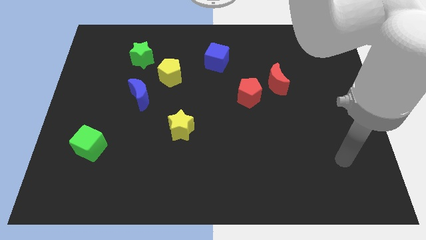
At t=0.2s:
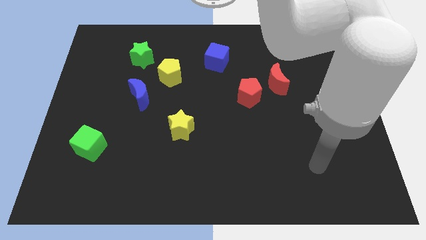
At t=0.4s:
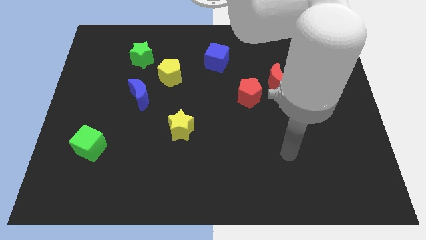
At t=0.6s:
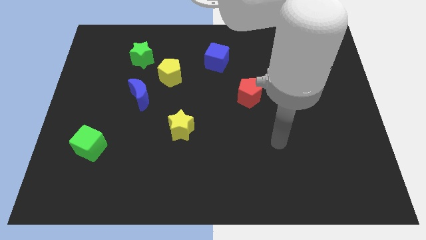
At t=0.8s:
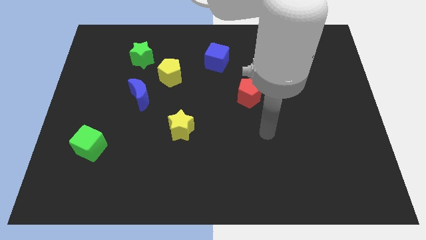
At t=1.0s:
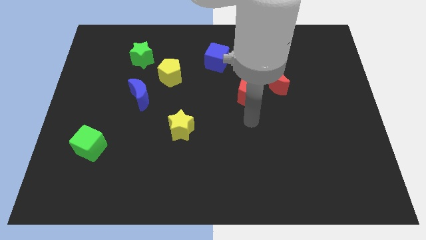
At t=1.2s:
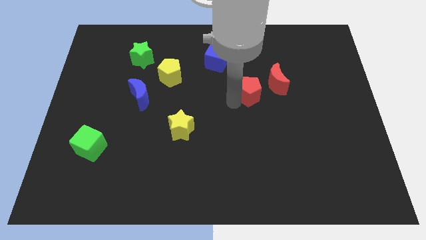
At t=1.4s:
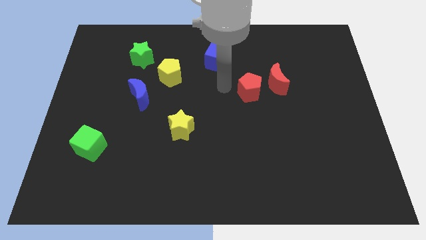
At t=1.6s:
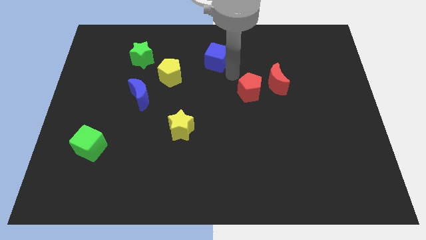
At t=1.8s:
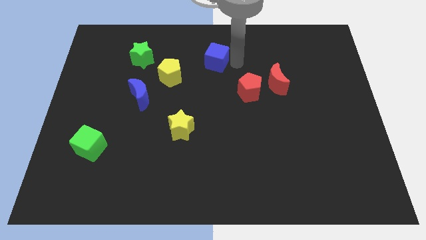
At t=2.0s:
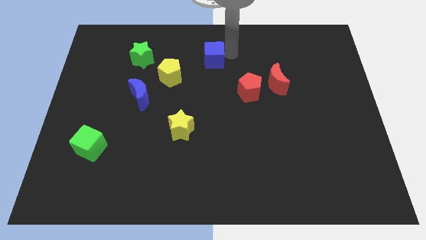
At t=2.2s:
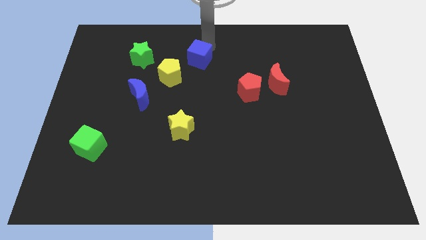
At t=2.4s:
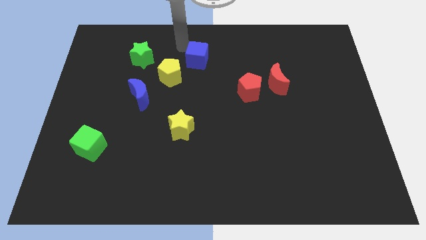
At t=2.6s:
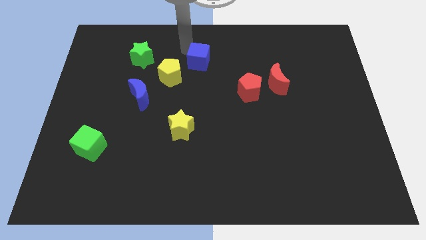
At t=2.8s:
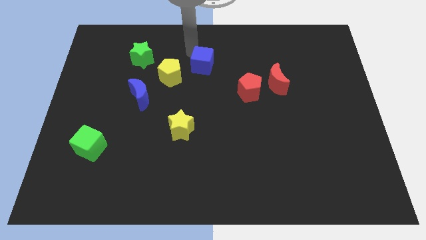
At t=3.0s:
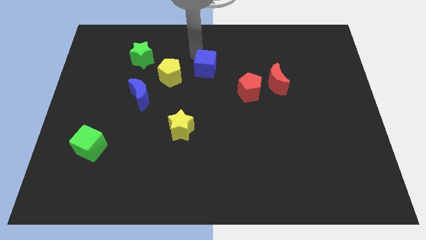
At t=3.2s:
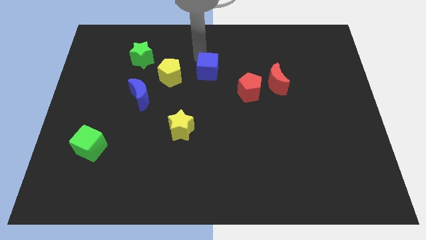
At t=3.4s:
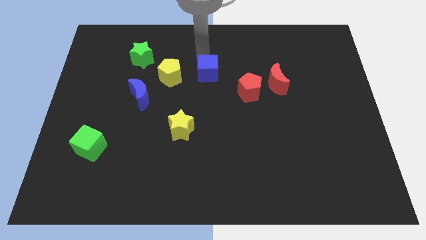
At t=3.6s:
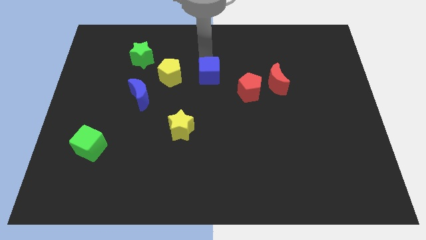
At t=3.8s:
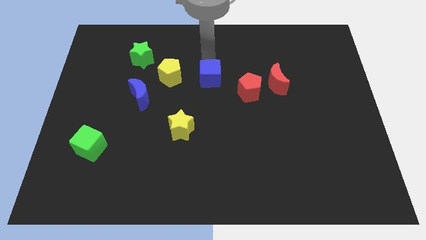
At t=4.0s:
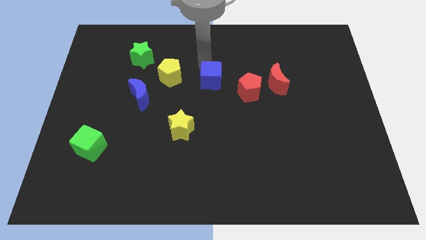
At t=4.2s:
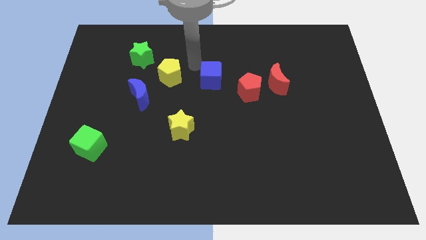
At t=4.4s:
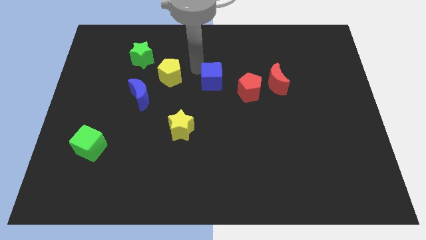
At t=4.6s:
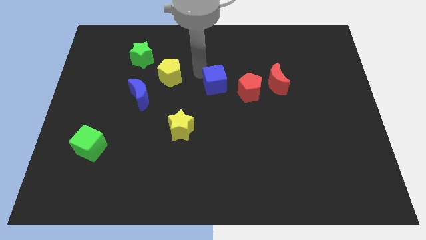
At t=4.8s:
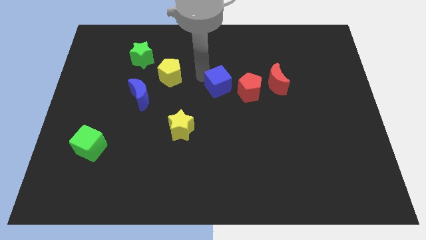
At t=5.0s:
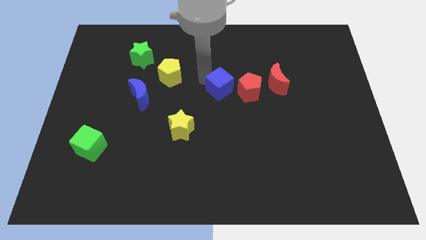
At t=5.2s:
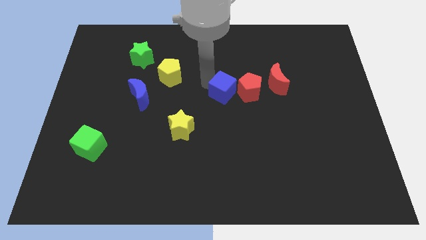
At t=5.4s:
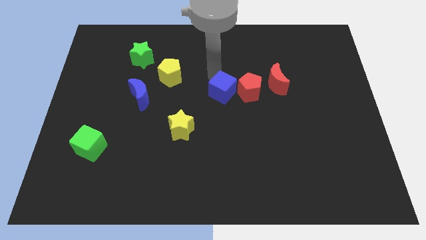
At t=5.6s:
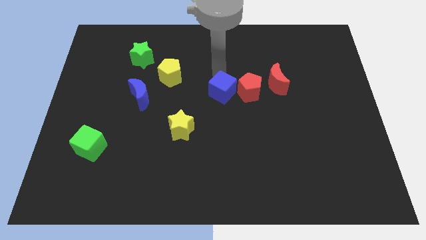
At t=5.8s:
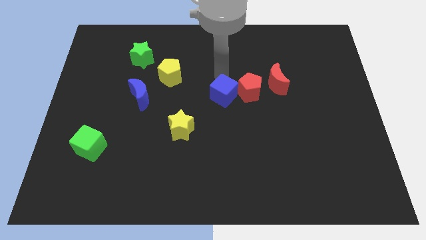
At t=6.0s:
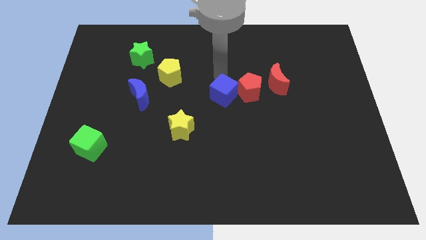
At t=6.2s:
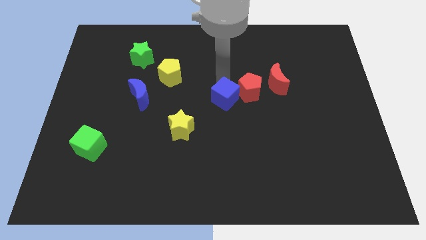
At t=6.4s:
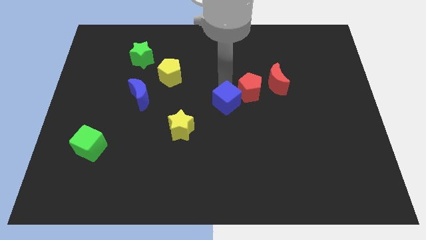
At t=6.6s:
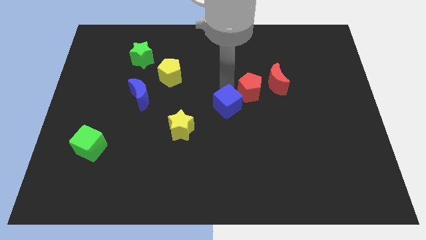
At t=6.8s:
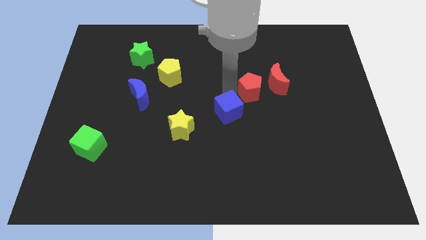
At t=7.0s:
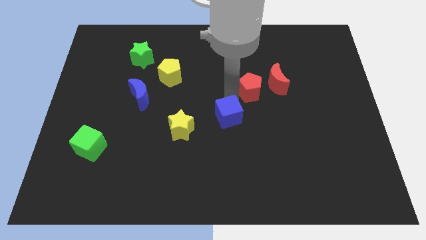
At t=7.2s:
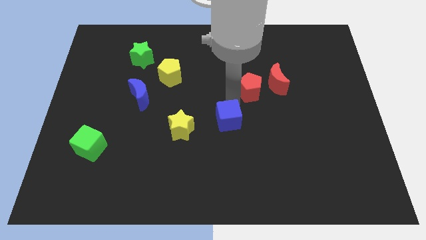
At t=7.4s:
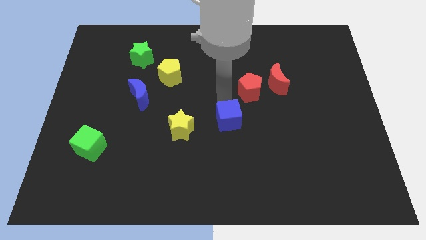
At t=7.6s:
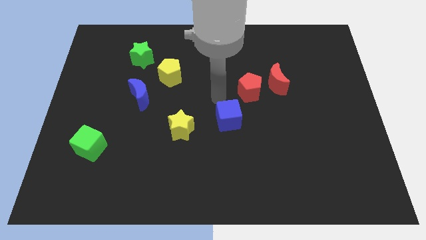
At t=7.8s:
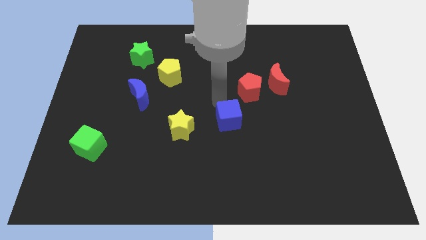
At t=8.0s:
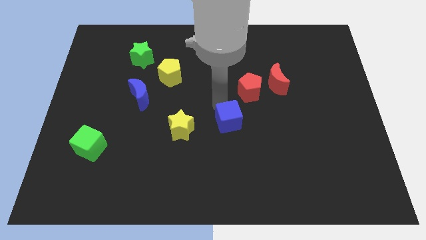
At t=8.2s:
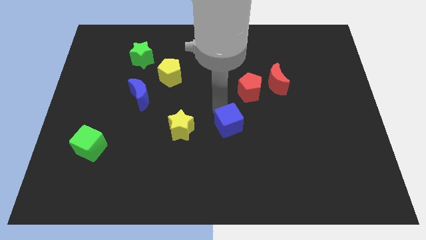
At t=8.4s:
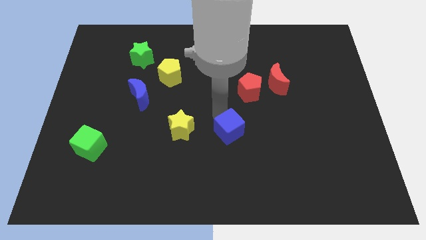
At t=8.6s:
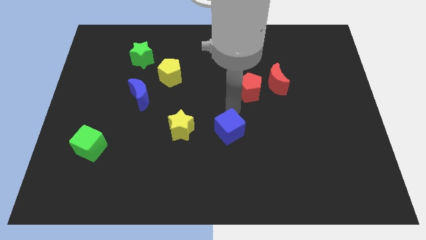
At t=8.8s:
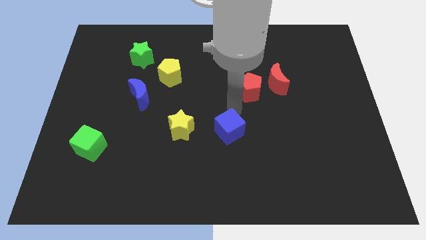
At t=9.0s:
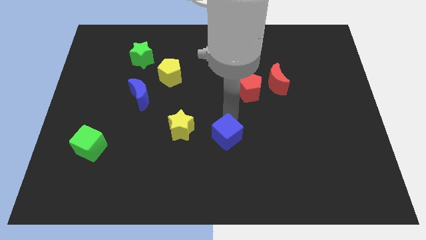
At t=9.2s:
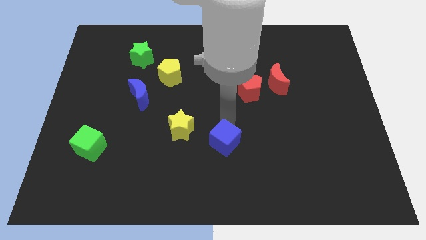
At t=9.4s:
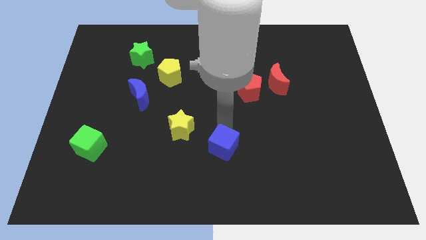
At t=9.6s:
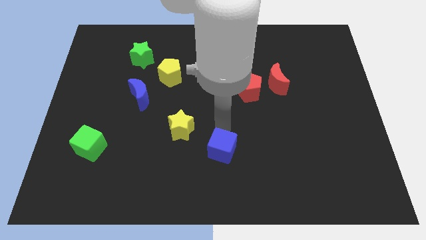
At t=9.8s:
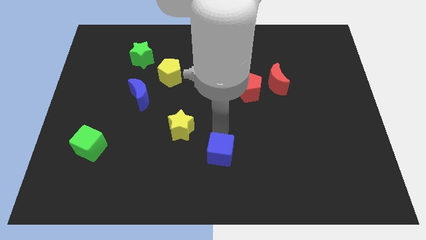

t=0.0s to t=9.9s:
move the blue cube to the bottom side

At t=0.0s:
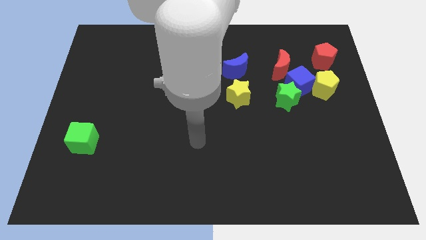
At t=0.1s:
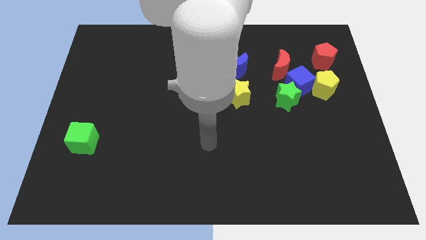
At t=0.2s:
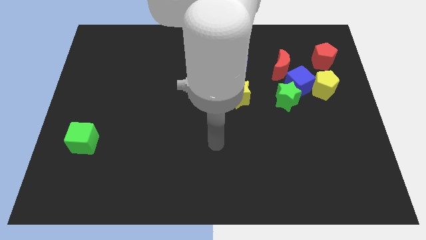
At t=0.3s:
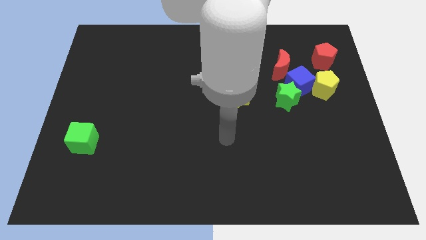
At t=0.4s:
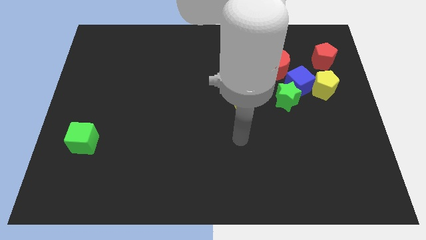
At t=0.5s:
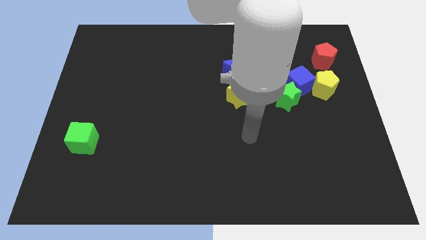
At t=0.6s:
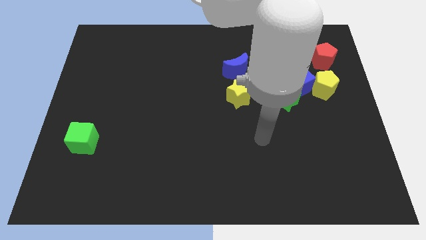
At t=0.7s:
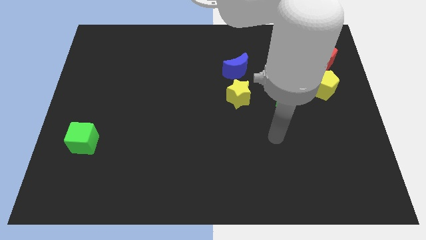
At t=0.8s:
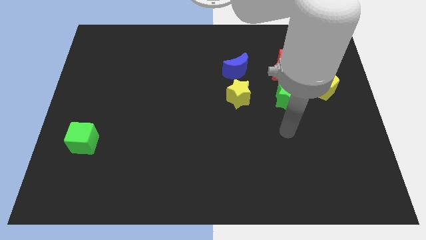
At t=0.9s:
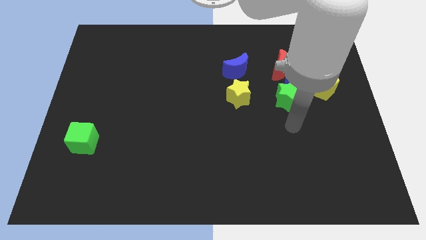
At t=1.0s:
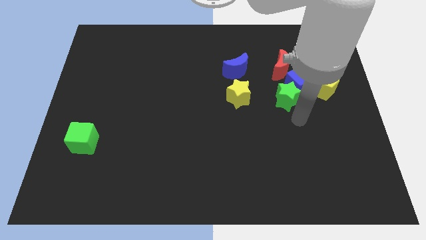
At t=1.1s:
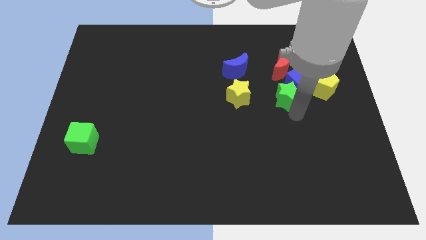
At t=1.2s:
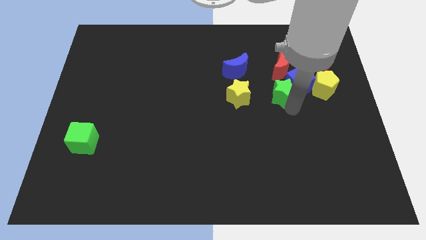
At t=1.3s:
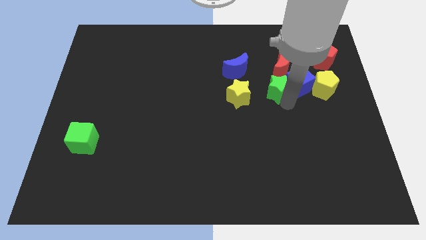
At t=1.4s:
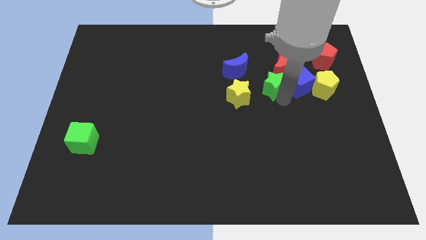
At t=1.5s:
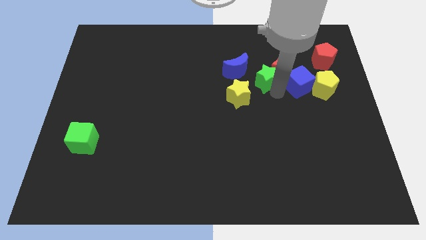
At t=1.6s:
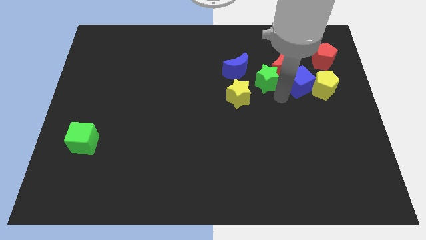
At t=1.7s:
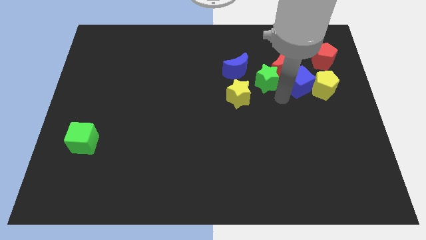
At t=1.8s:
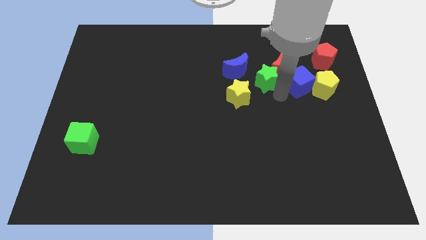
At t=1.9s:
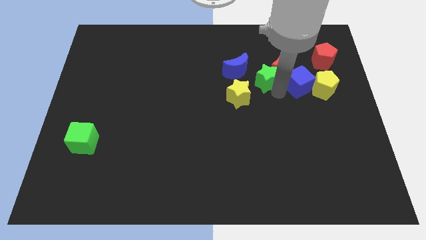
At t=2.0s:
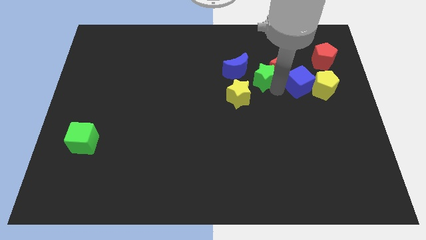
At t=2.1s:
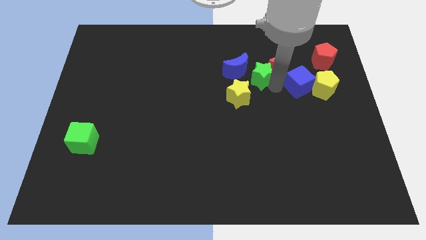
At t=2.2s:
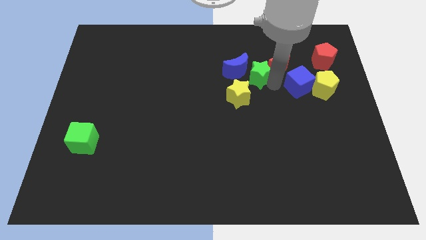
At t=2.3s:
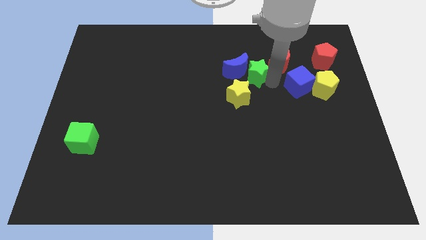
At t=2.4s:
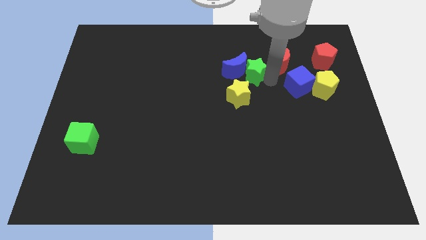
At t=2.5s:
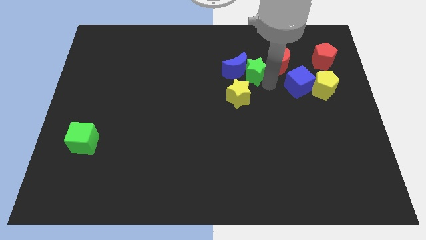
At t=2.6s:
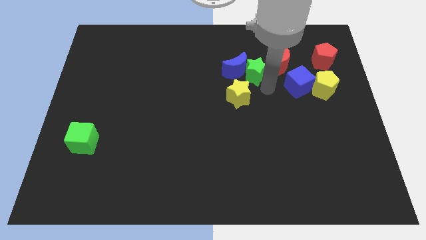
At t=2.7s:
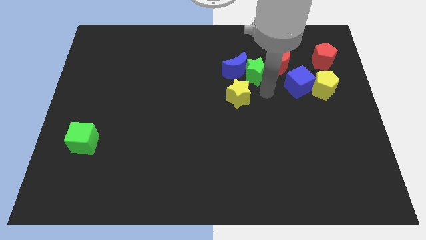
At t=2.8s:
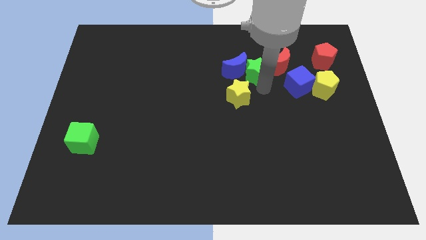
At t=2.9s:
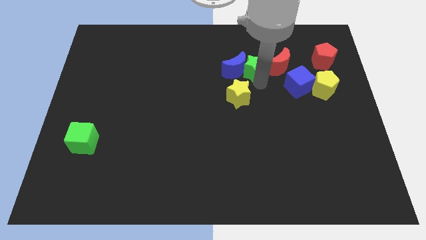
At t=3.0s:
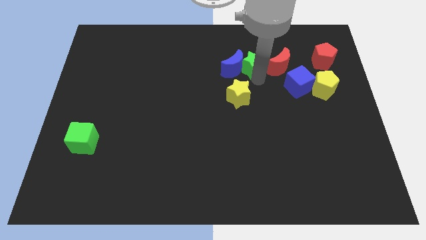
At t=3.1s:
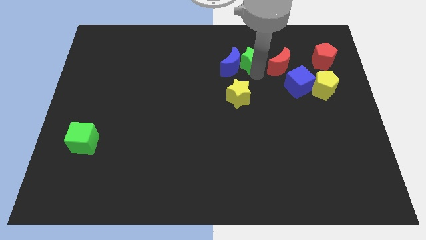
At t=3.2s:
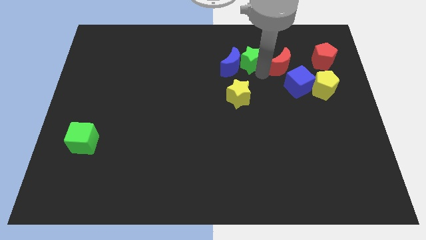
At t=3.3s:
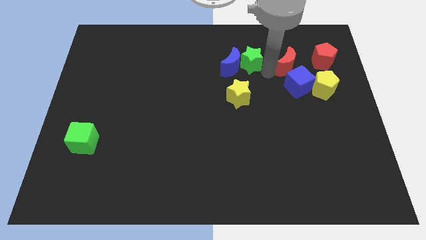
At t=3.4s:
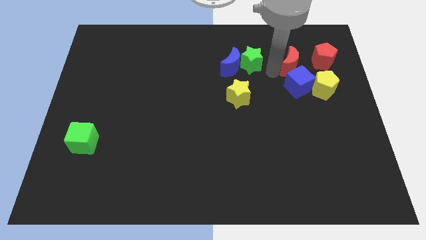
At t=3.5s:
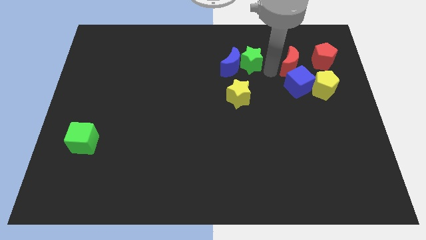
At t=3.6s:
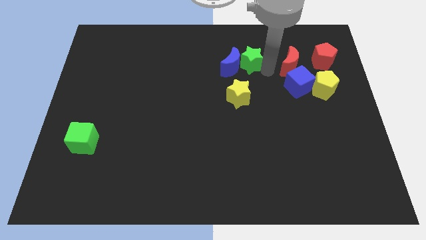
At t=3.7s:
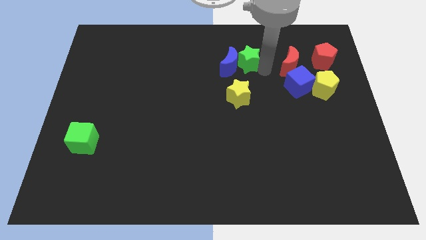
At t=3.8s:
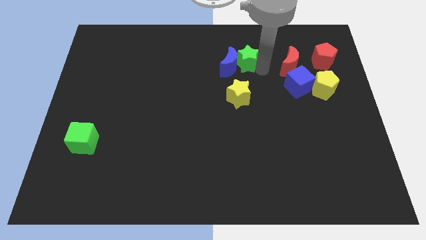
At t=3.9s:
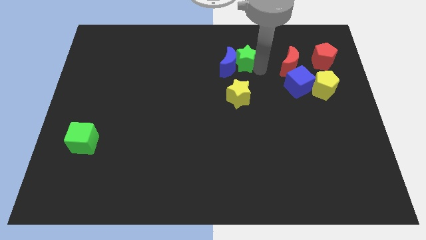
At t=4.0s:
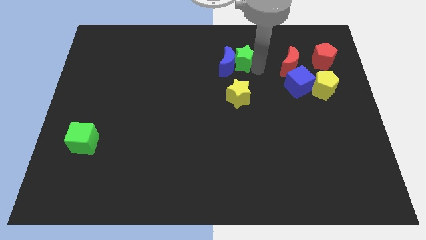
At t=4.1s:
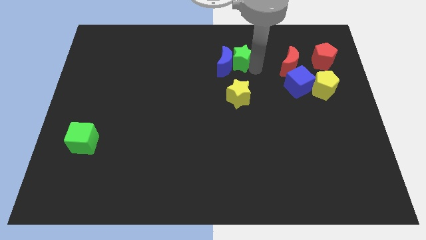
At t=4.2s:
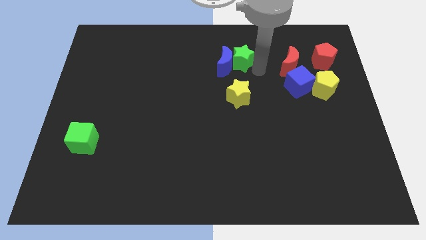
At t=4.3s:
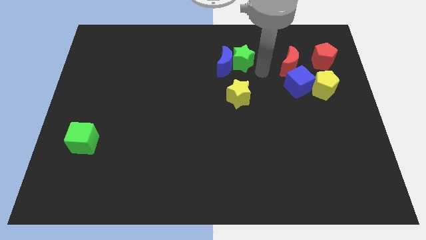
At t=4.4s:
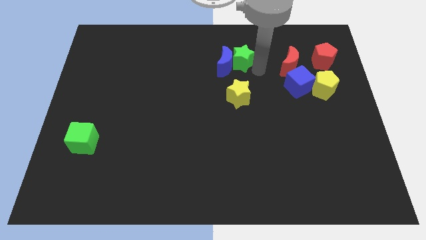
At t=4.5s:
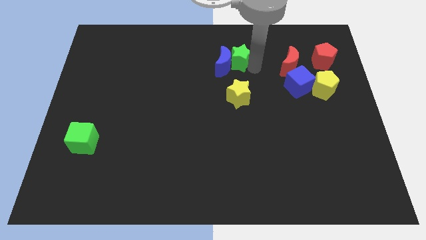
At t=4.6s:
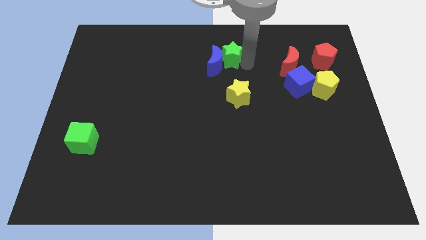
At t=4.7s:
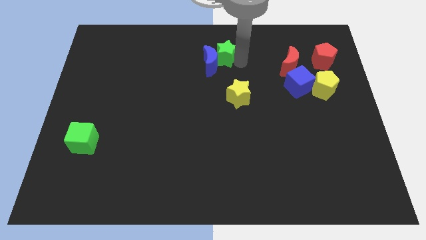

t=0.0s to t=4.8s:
move the green star to the top
